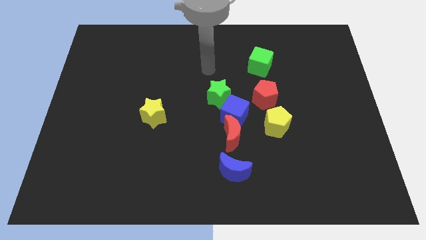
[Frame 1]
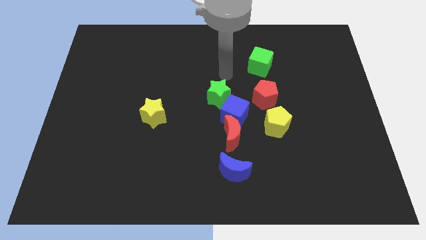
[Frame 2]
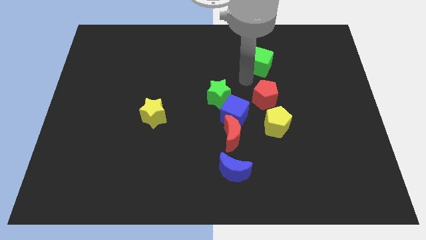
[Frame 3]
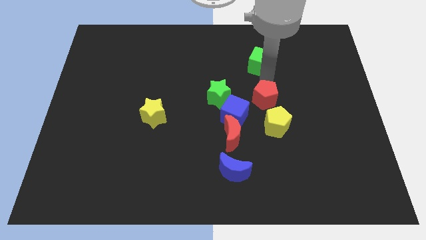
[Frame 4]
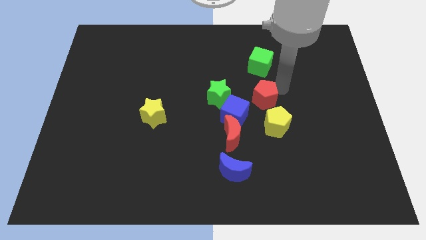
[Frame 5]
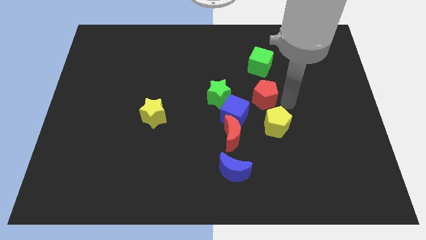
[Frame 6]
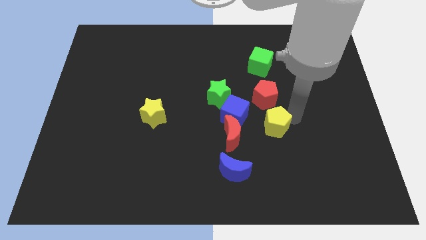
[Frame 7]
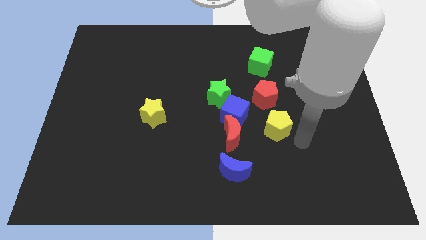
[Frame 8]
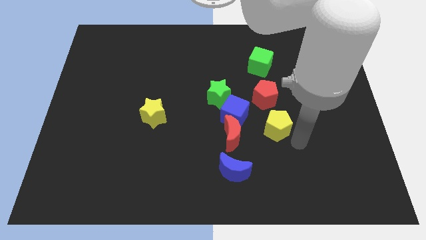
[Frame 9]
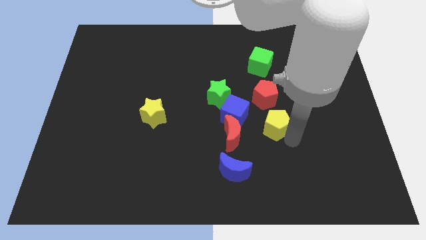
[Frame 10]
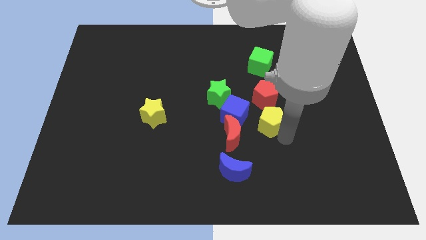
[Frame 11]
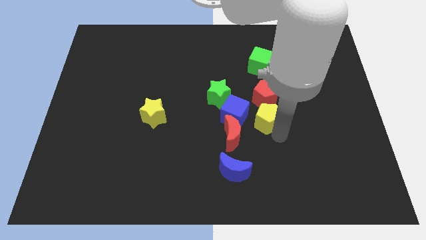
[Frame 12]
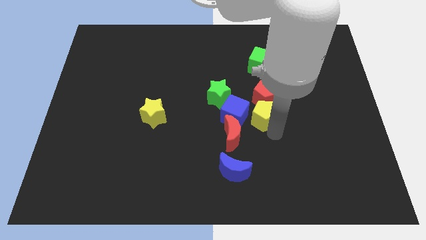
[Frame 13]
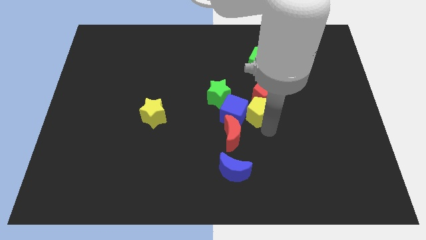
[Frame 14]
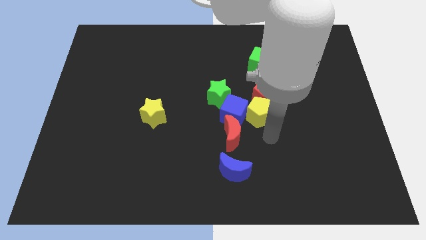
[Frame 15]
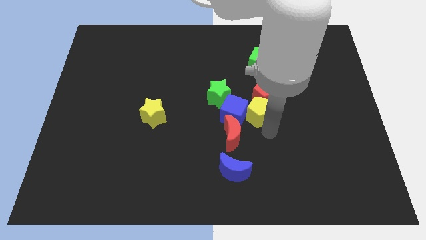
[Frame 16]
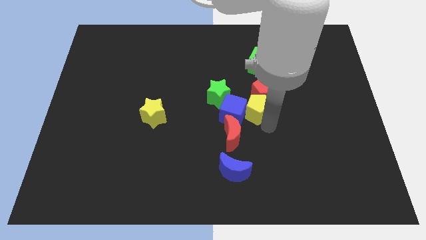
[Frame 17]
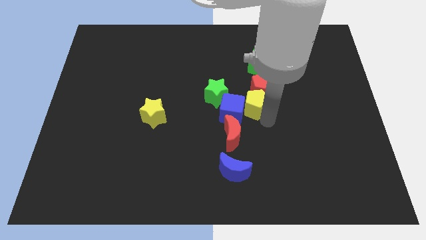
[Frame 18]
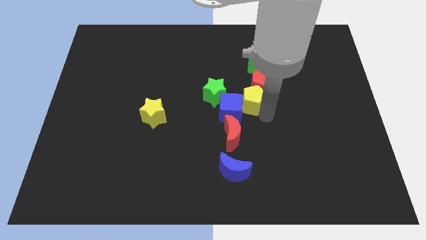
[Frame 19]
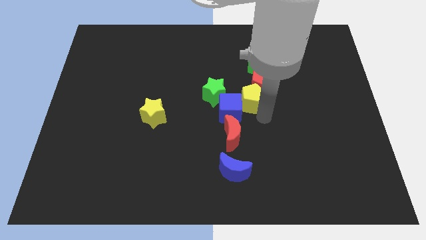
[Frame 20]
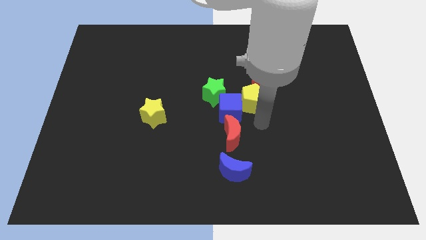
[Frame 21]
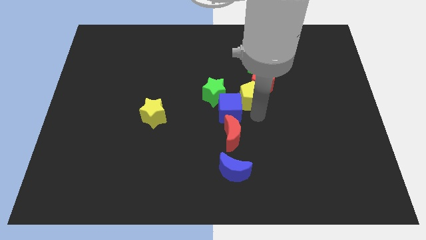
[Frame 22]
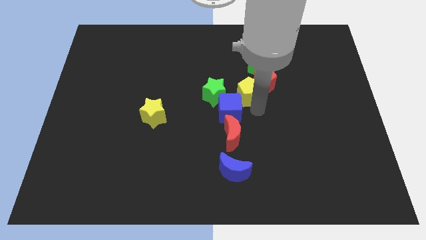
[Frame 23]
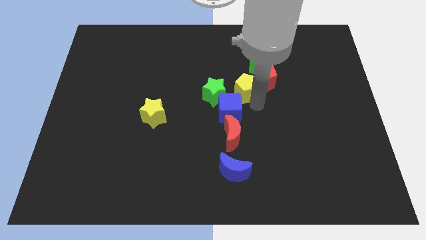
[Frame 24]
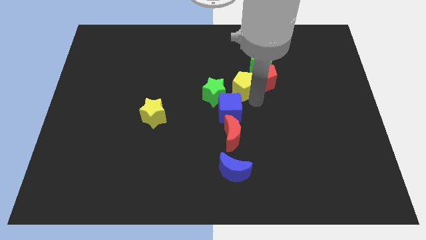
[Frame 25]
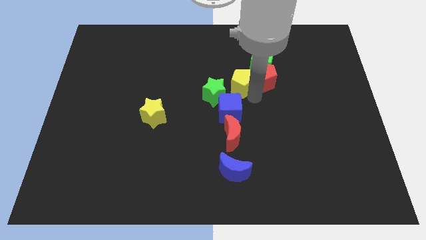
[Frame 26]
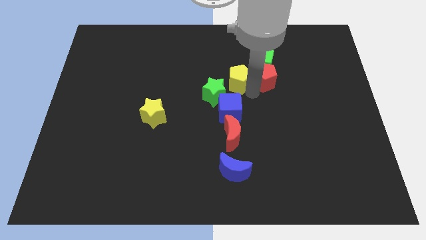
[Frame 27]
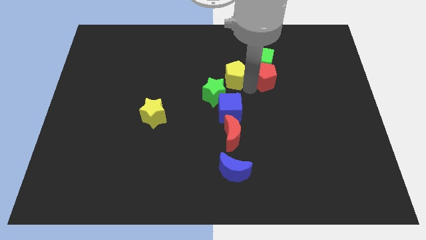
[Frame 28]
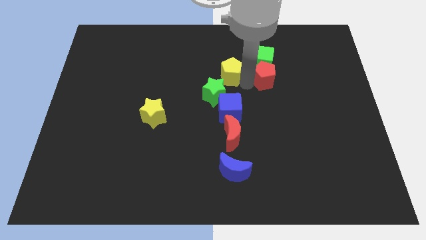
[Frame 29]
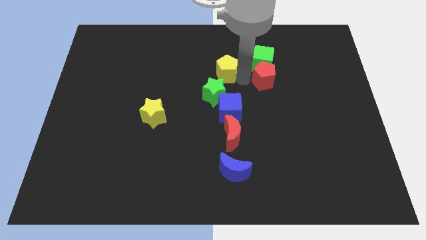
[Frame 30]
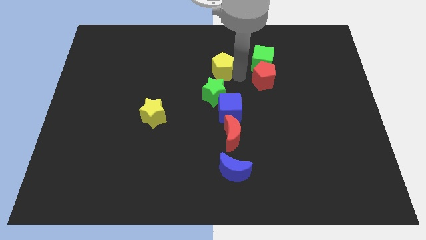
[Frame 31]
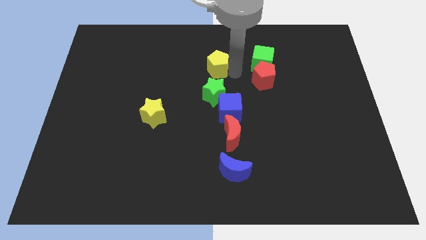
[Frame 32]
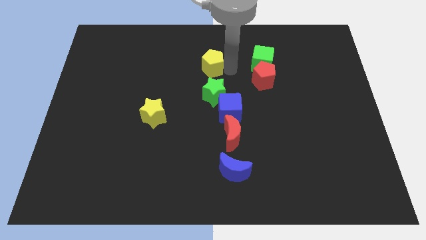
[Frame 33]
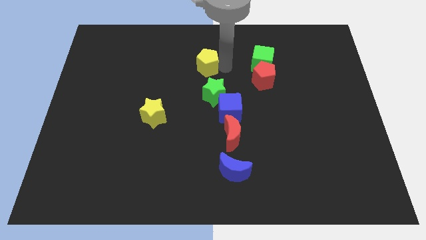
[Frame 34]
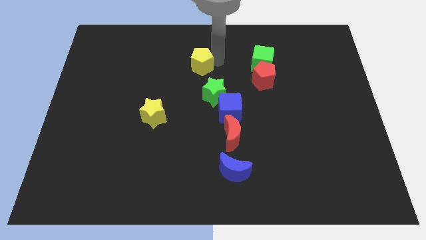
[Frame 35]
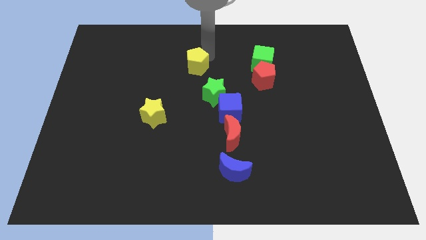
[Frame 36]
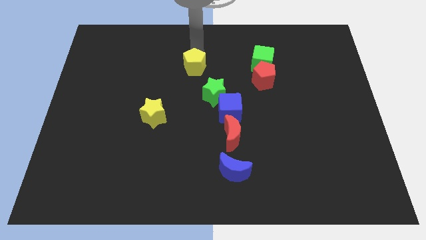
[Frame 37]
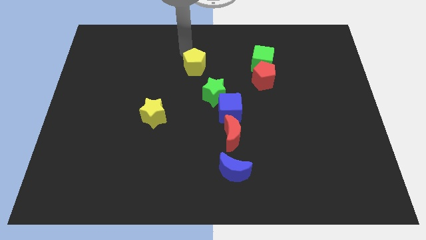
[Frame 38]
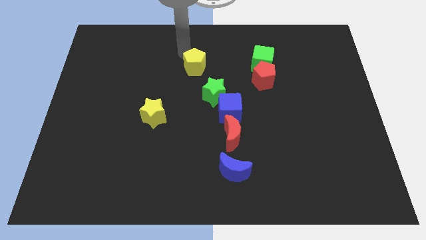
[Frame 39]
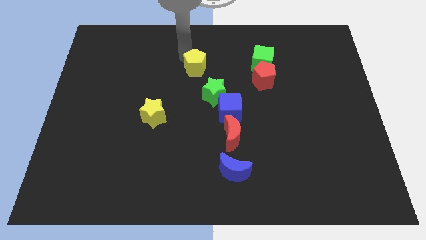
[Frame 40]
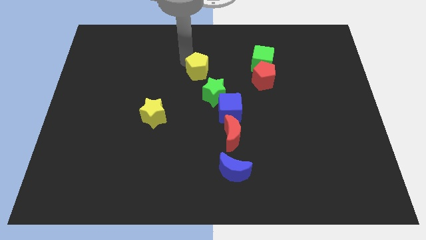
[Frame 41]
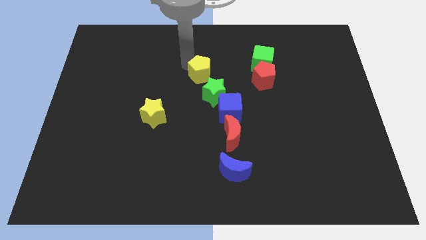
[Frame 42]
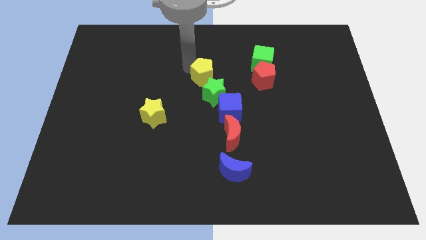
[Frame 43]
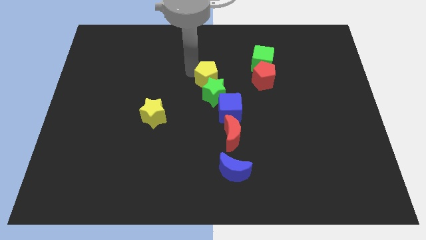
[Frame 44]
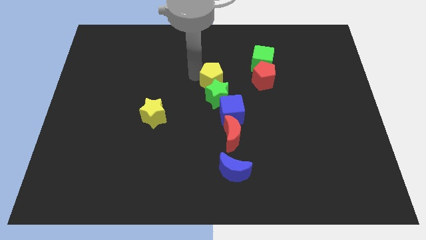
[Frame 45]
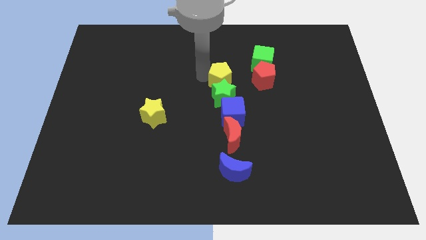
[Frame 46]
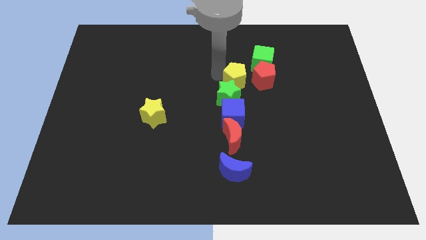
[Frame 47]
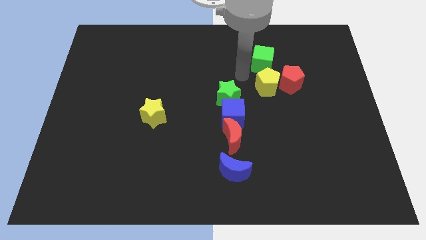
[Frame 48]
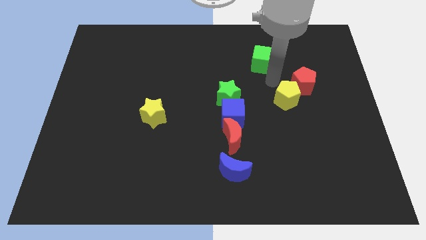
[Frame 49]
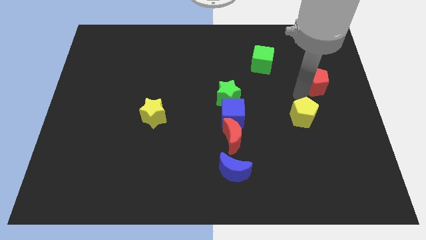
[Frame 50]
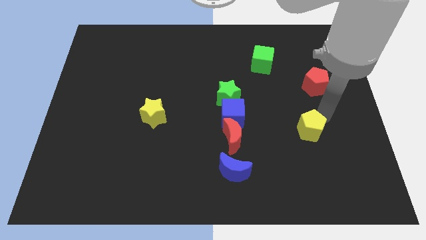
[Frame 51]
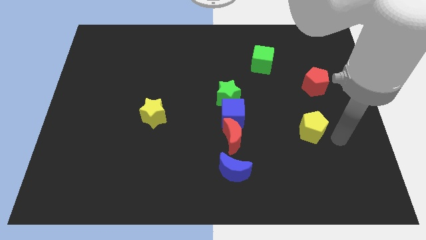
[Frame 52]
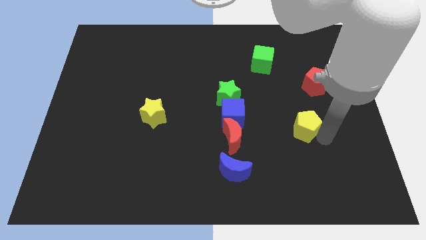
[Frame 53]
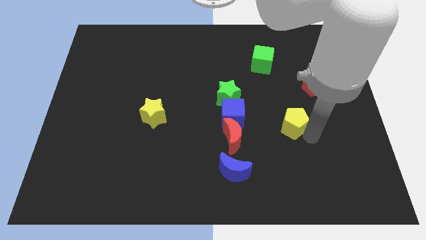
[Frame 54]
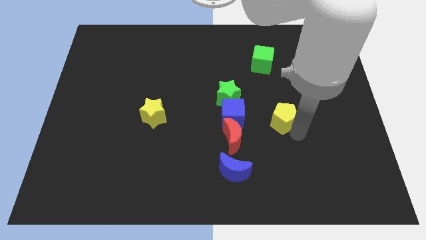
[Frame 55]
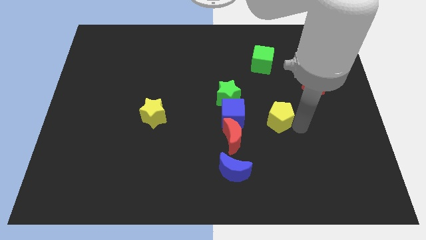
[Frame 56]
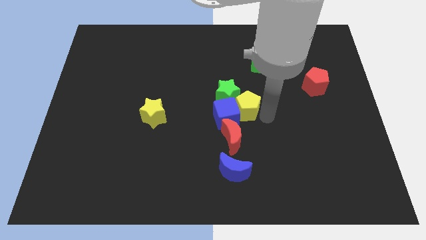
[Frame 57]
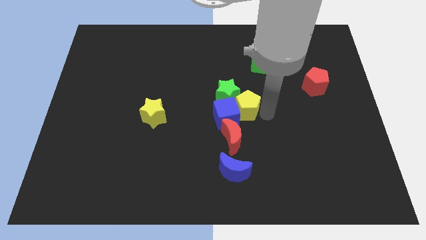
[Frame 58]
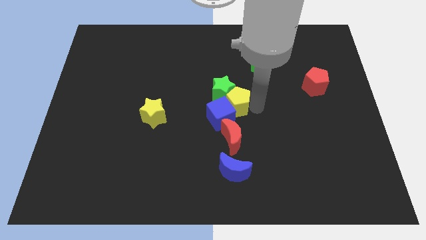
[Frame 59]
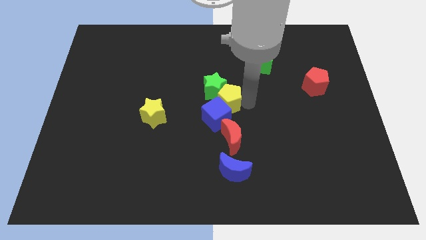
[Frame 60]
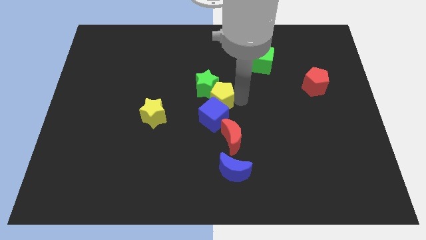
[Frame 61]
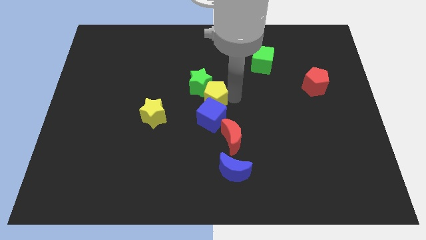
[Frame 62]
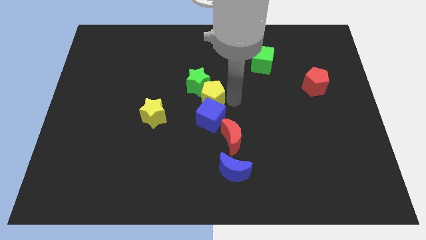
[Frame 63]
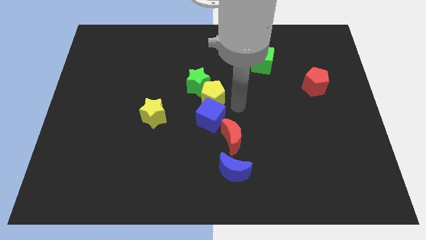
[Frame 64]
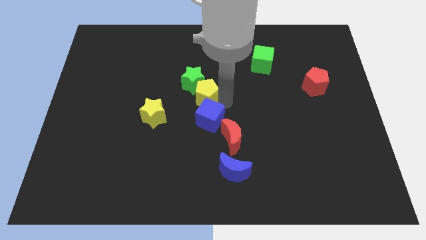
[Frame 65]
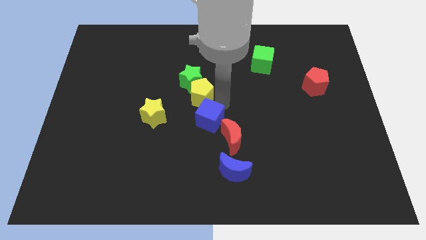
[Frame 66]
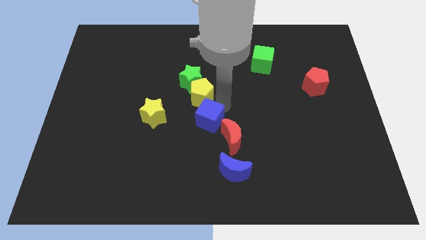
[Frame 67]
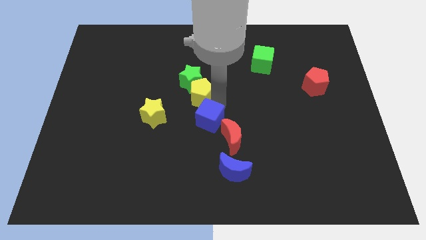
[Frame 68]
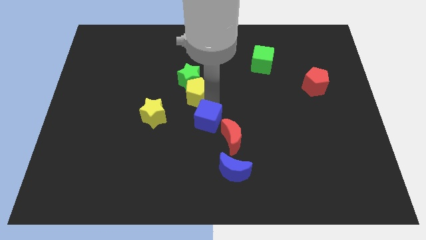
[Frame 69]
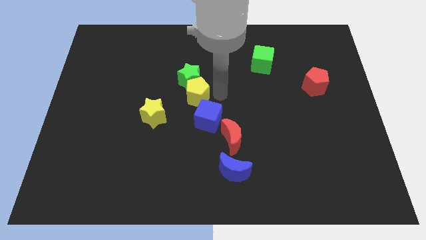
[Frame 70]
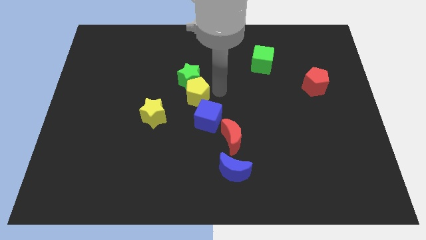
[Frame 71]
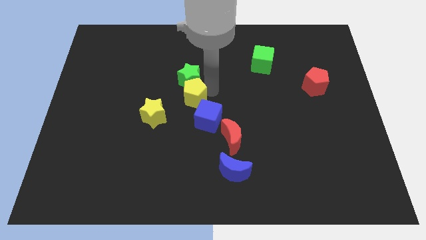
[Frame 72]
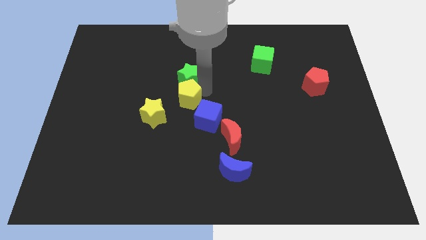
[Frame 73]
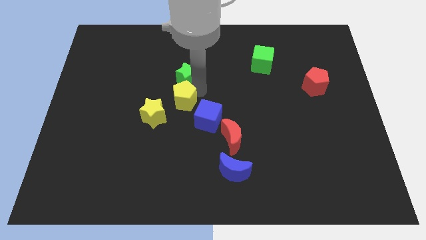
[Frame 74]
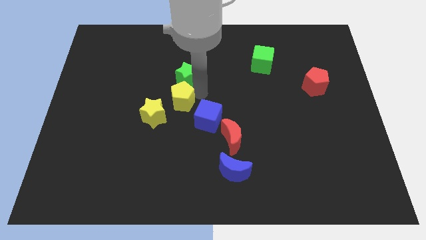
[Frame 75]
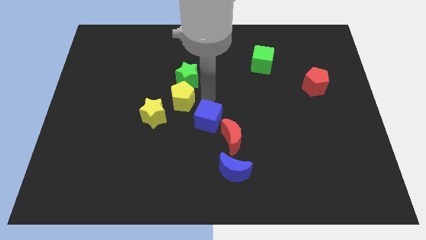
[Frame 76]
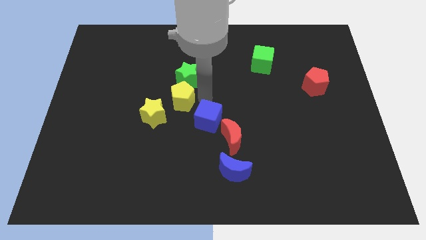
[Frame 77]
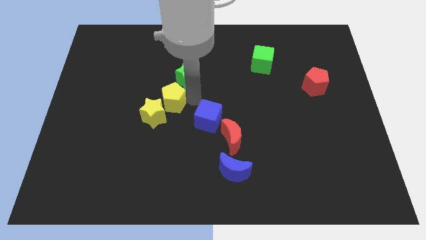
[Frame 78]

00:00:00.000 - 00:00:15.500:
push the yellow pentagon towards the yellow star
